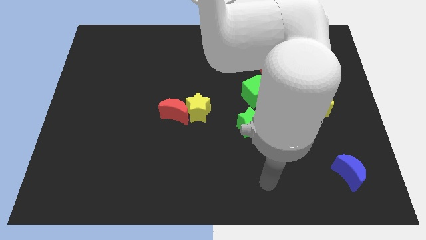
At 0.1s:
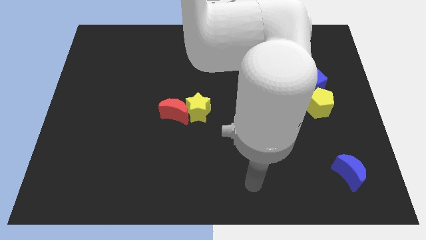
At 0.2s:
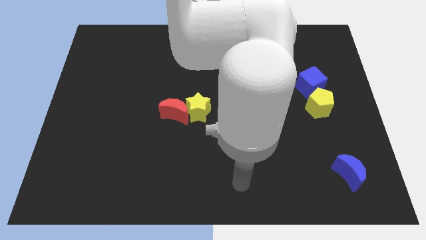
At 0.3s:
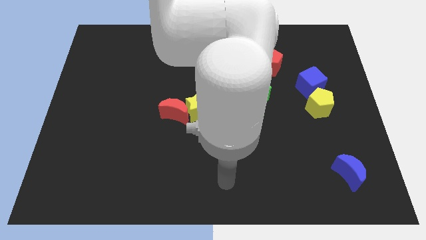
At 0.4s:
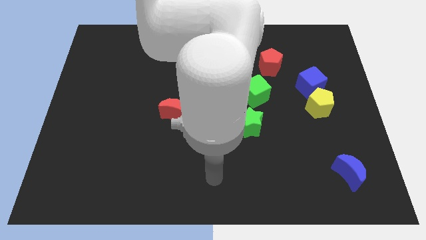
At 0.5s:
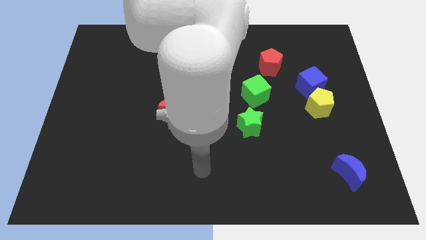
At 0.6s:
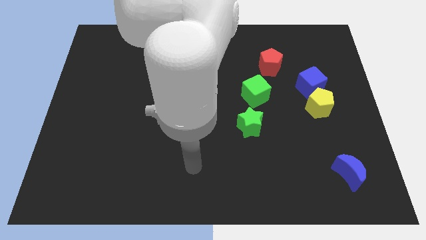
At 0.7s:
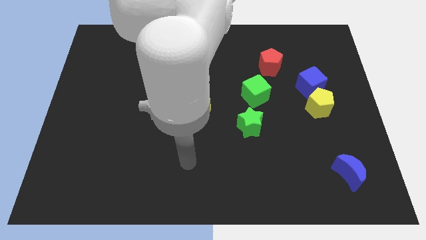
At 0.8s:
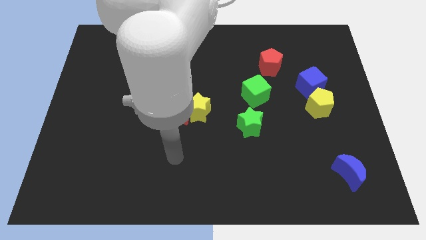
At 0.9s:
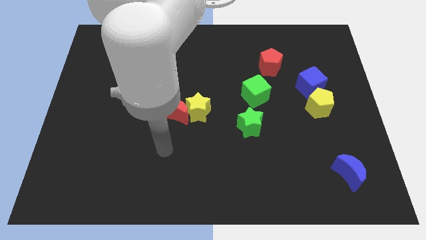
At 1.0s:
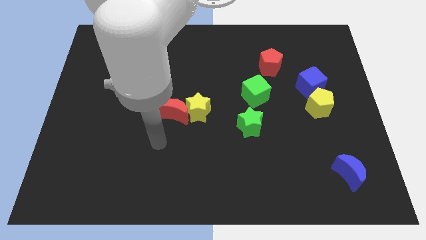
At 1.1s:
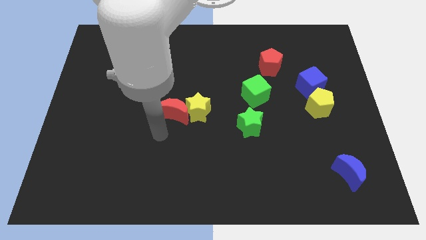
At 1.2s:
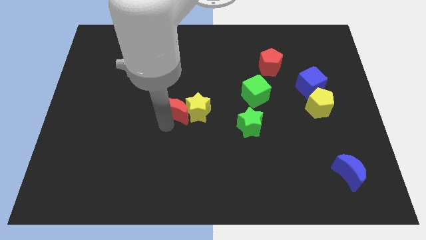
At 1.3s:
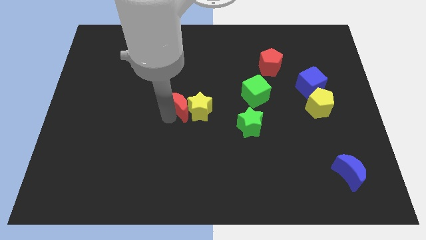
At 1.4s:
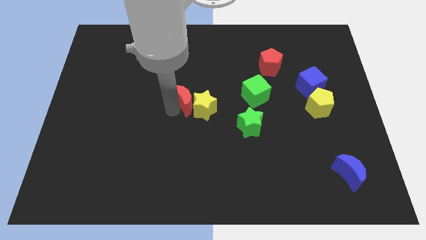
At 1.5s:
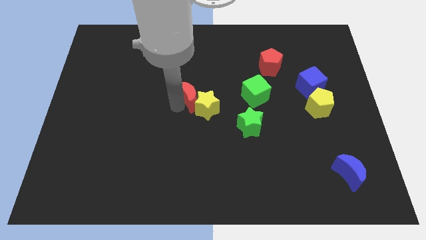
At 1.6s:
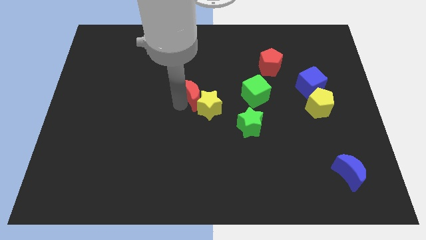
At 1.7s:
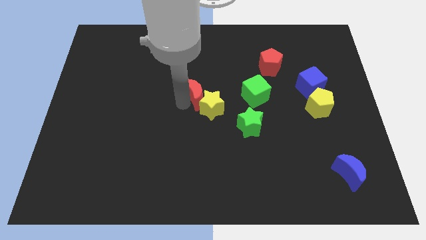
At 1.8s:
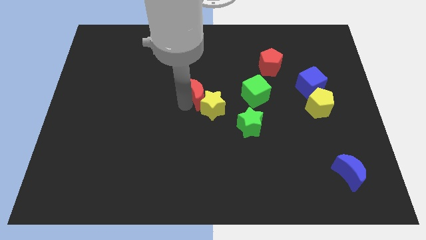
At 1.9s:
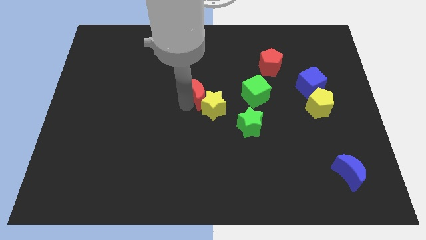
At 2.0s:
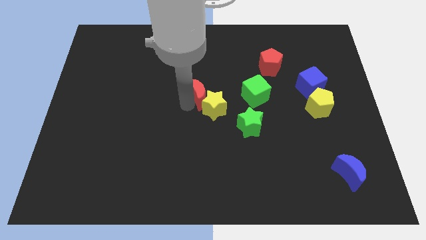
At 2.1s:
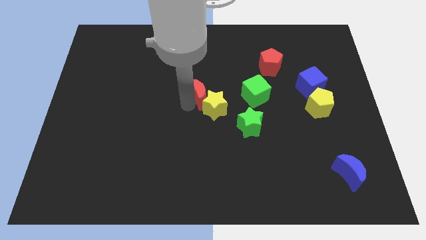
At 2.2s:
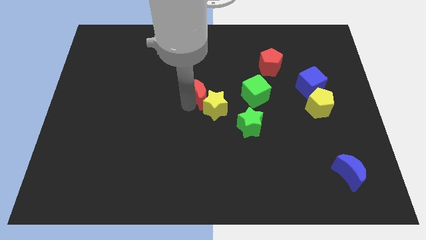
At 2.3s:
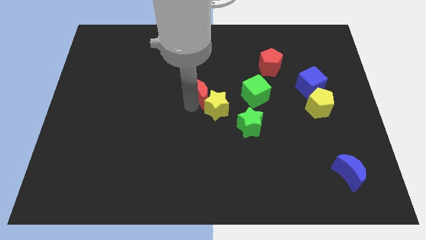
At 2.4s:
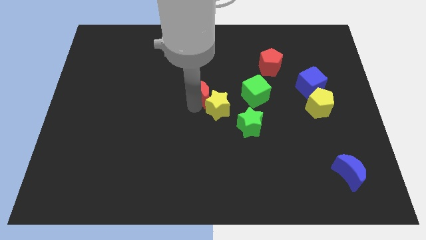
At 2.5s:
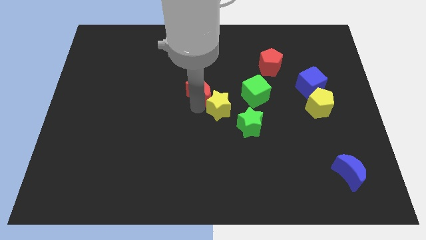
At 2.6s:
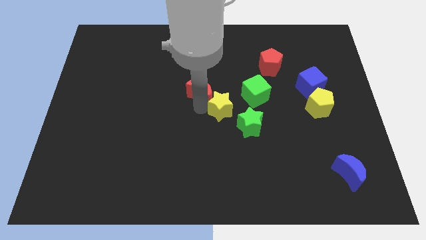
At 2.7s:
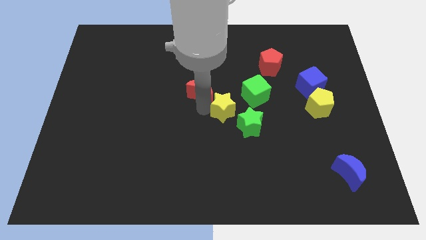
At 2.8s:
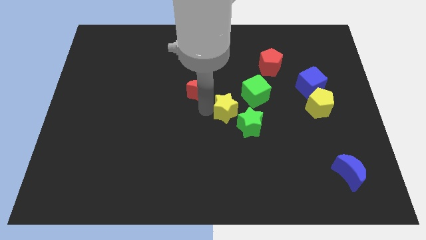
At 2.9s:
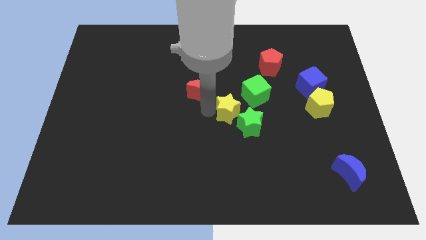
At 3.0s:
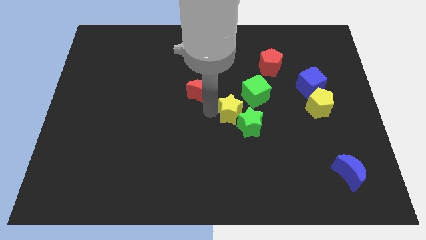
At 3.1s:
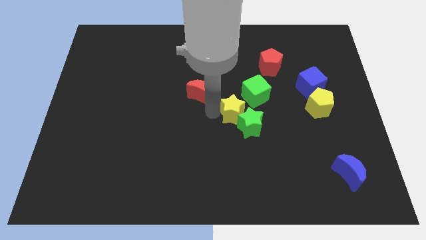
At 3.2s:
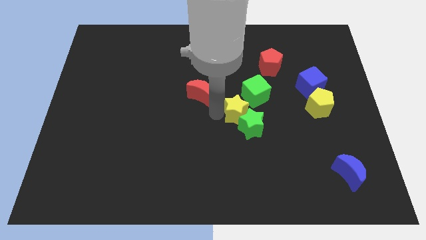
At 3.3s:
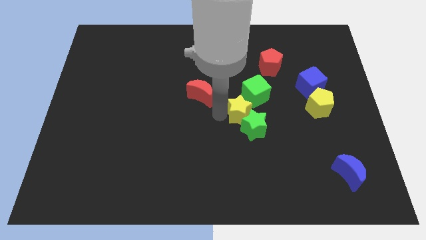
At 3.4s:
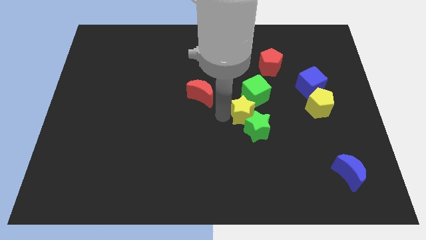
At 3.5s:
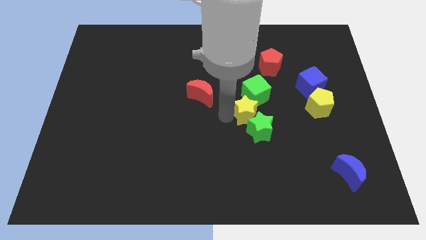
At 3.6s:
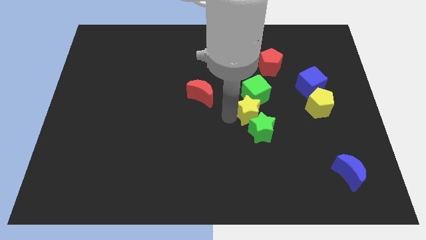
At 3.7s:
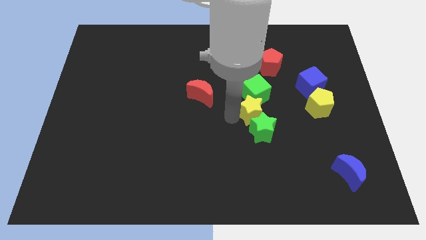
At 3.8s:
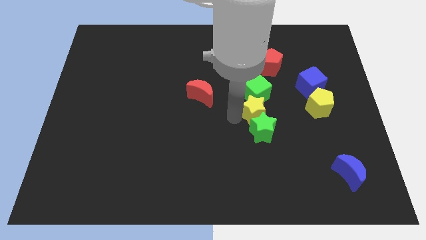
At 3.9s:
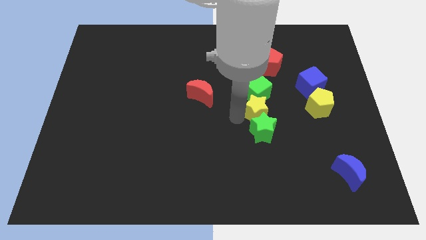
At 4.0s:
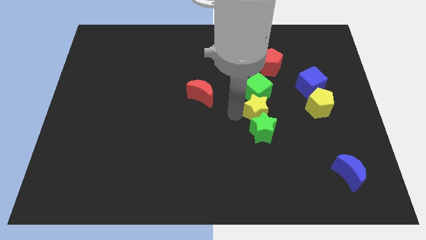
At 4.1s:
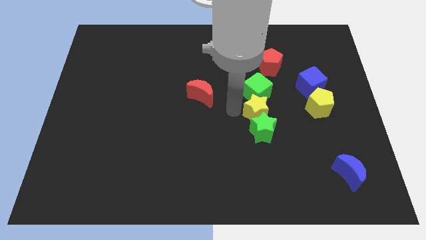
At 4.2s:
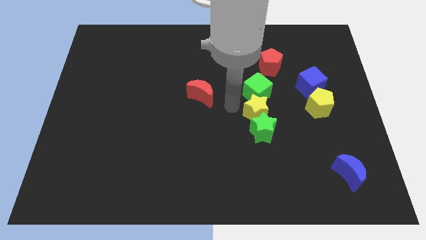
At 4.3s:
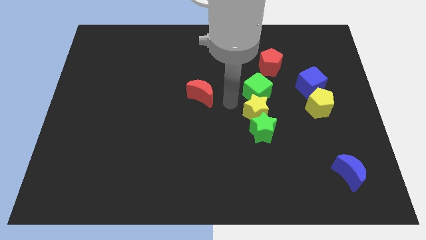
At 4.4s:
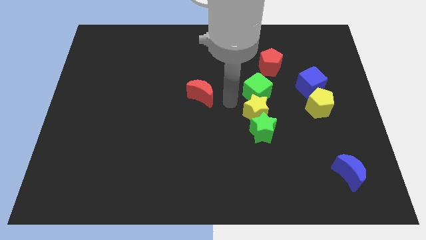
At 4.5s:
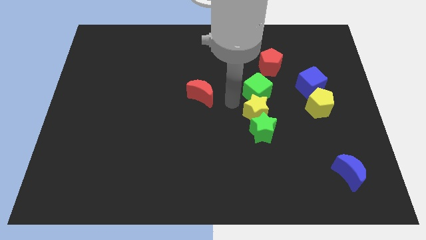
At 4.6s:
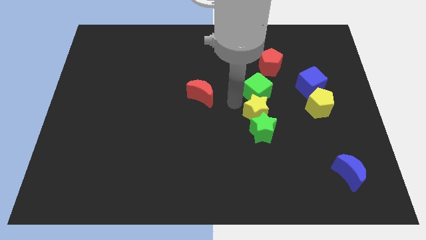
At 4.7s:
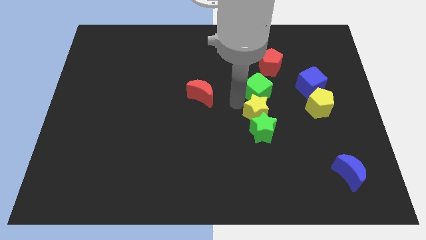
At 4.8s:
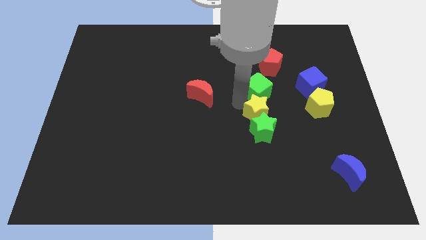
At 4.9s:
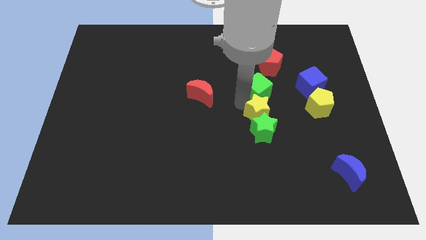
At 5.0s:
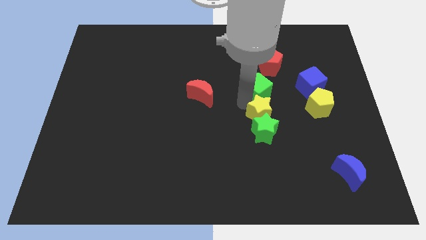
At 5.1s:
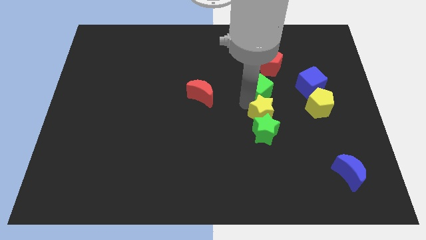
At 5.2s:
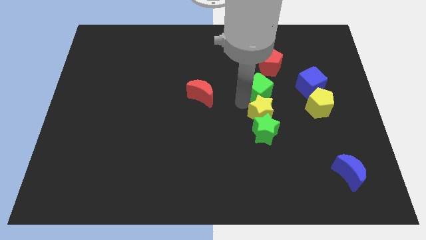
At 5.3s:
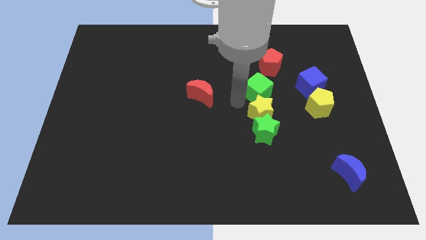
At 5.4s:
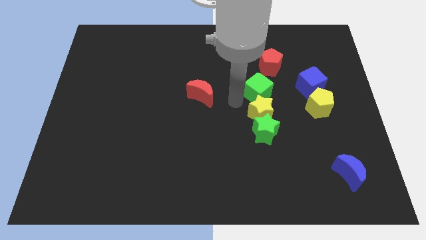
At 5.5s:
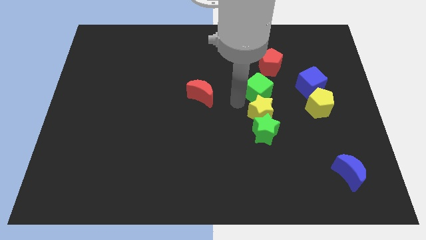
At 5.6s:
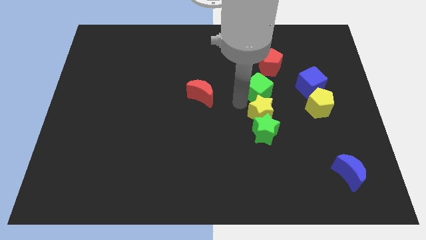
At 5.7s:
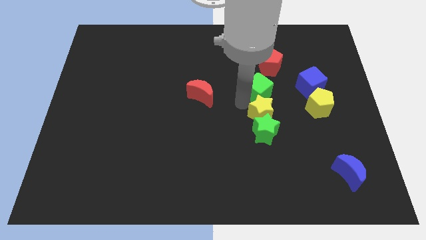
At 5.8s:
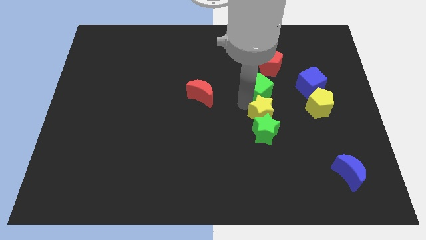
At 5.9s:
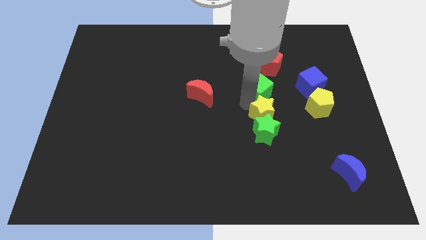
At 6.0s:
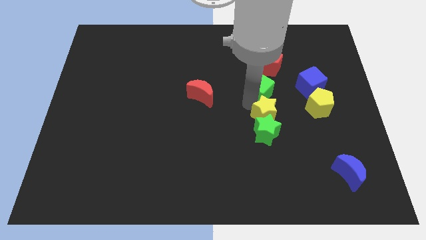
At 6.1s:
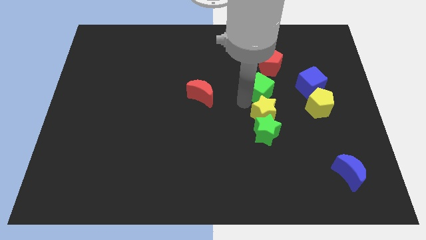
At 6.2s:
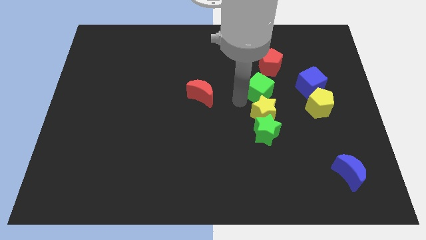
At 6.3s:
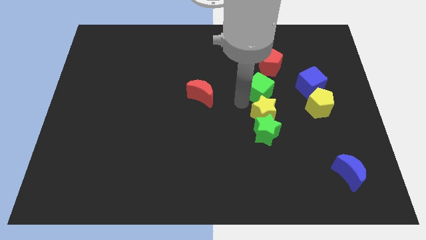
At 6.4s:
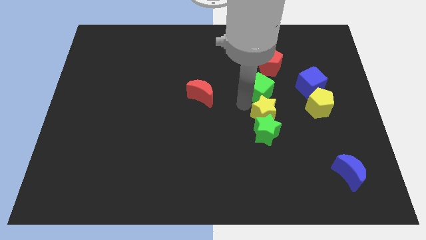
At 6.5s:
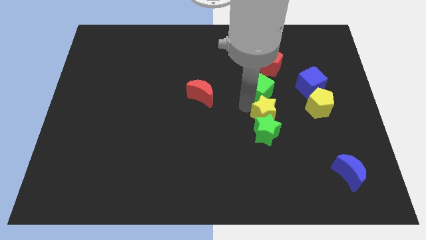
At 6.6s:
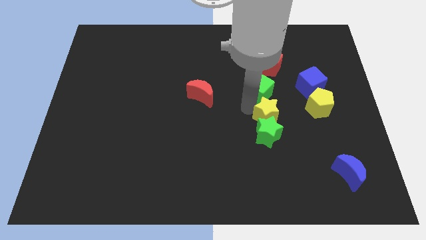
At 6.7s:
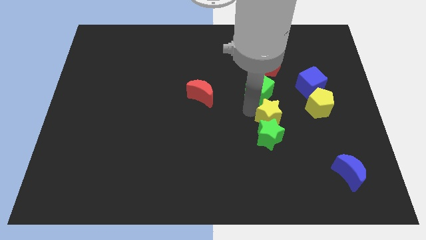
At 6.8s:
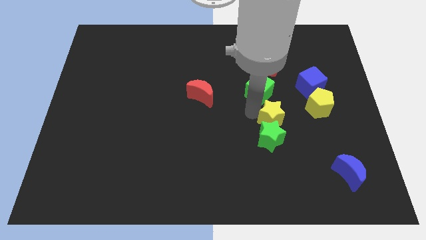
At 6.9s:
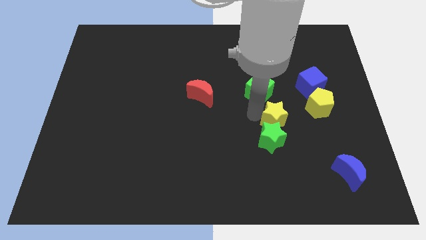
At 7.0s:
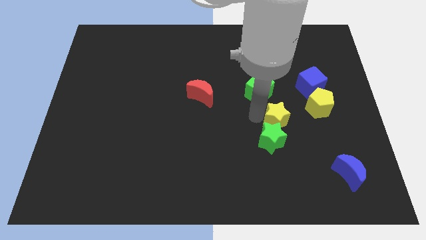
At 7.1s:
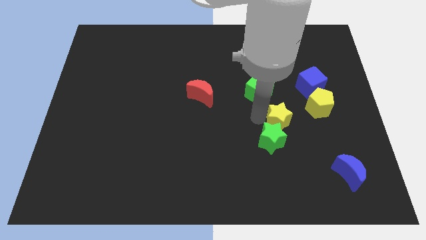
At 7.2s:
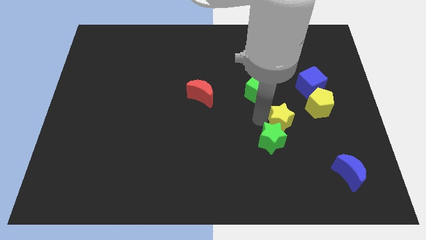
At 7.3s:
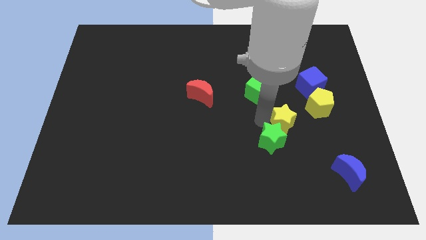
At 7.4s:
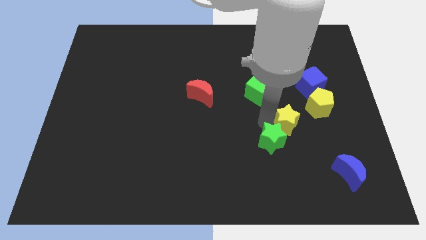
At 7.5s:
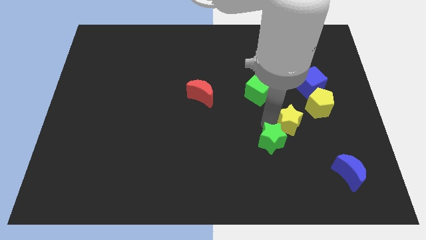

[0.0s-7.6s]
push the yellow star to the right

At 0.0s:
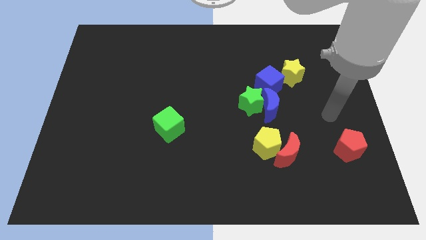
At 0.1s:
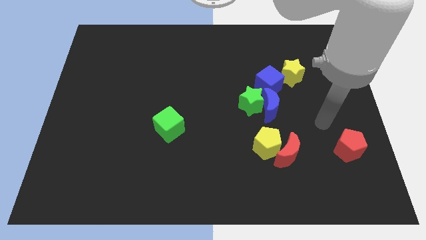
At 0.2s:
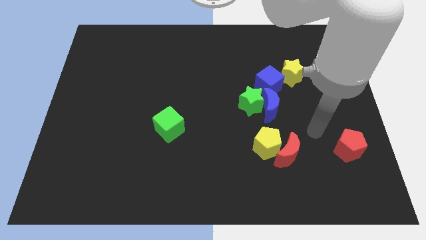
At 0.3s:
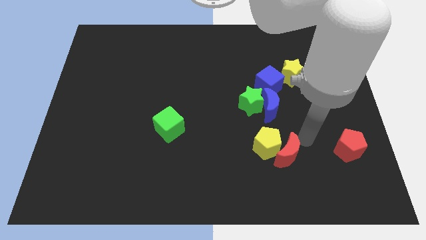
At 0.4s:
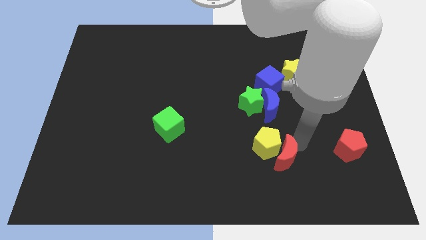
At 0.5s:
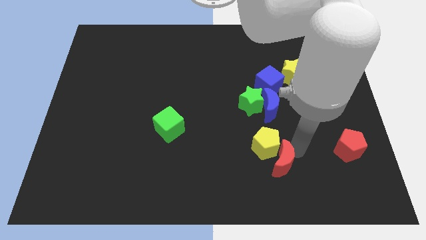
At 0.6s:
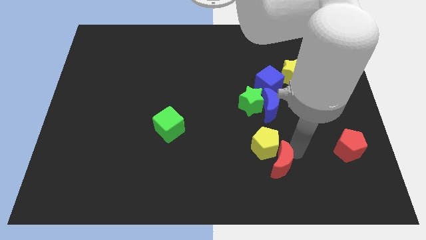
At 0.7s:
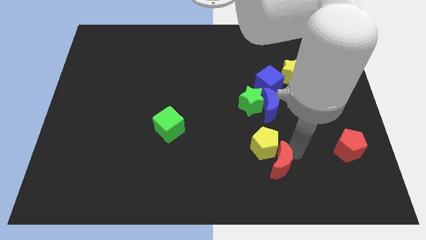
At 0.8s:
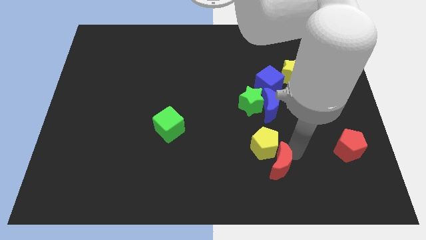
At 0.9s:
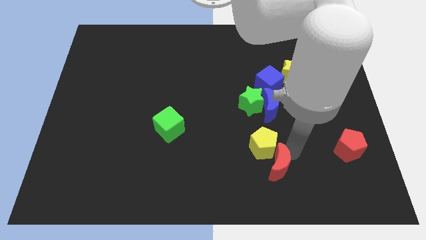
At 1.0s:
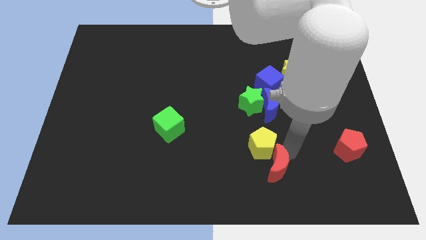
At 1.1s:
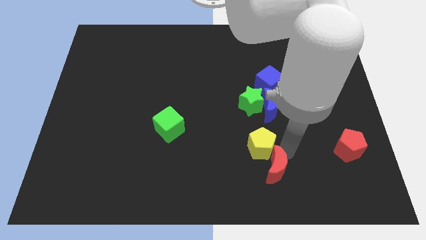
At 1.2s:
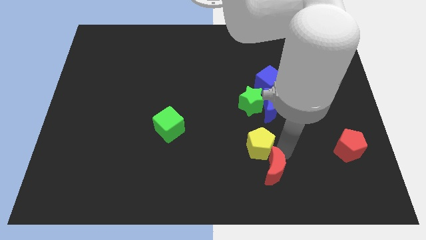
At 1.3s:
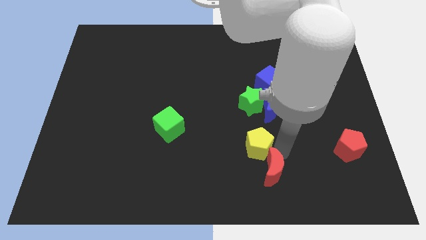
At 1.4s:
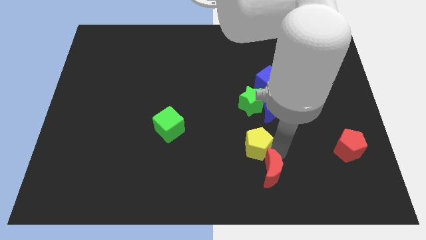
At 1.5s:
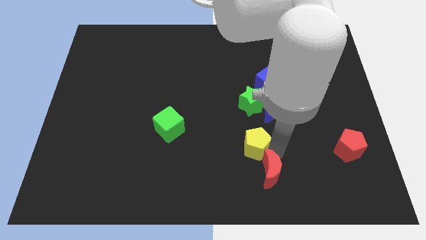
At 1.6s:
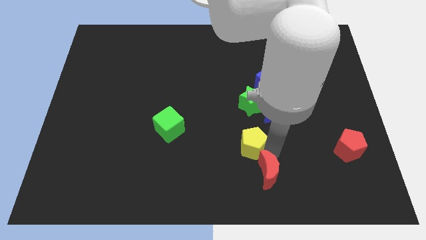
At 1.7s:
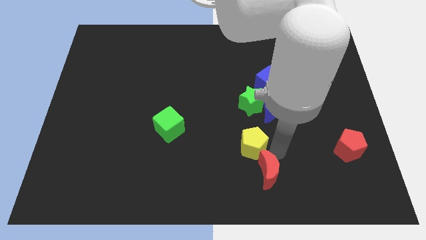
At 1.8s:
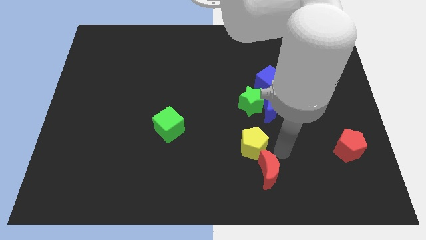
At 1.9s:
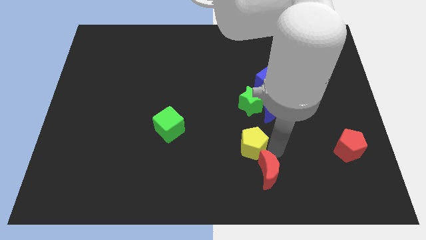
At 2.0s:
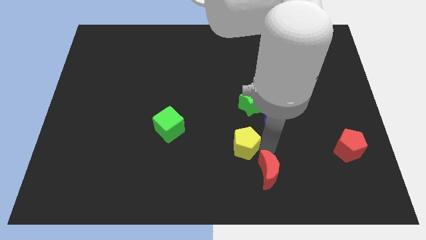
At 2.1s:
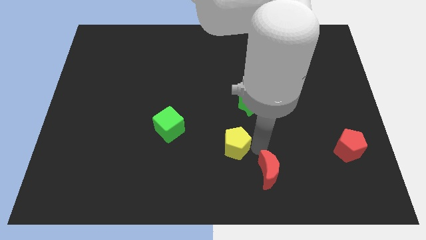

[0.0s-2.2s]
push the yellow pentagon a little left
